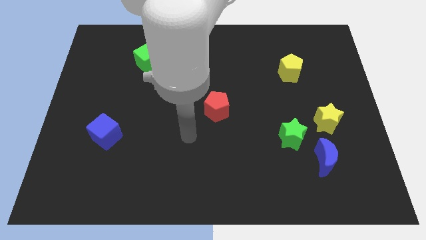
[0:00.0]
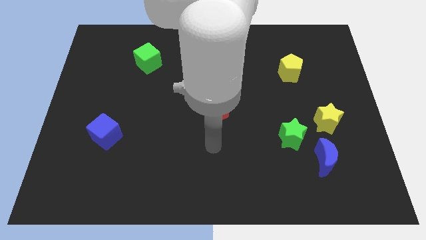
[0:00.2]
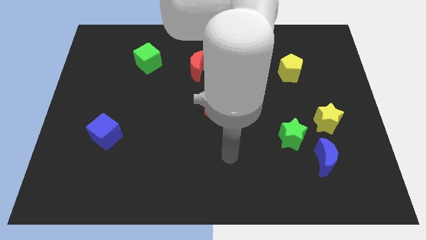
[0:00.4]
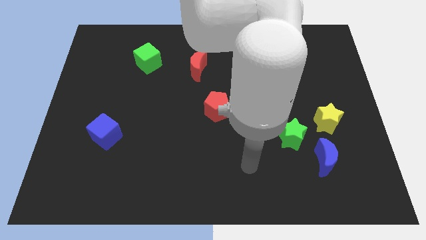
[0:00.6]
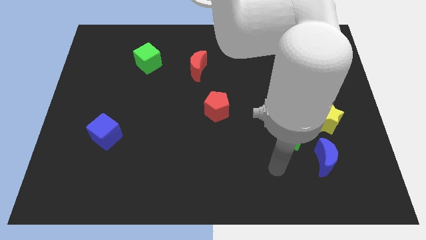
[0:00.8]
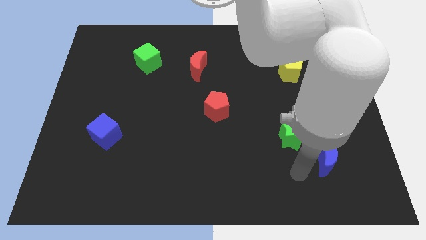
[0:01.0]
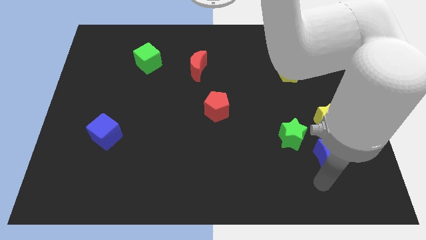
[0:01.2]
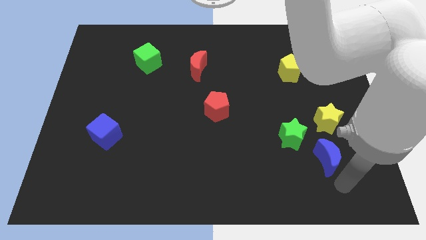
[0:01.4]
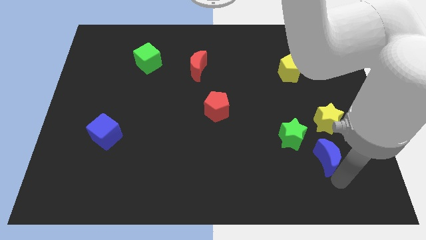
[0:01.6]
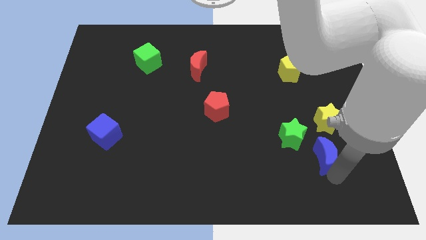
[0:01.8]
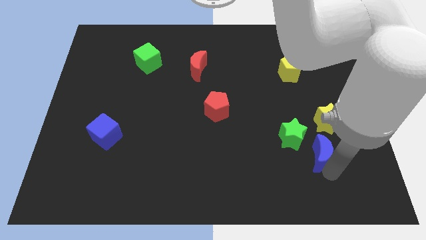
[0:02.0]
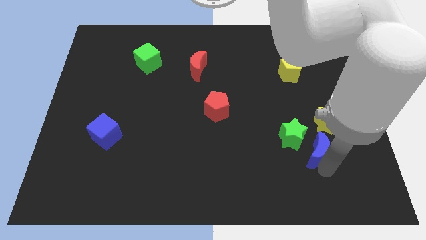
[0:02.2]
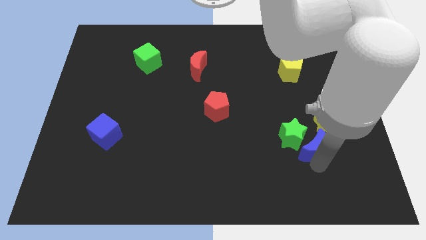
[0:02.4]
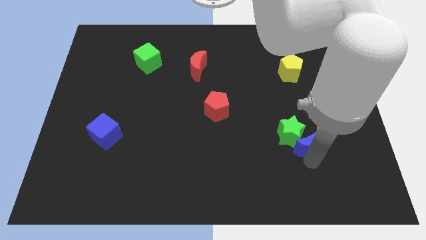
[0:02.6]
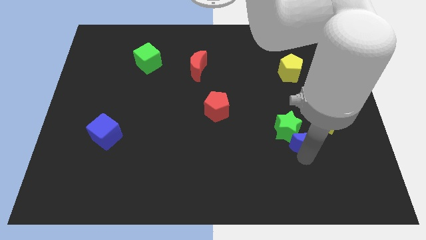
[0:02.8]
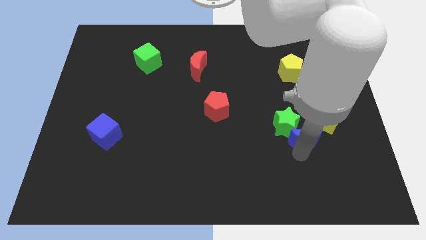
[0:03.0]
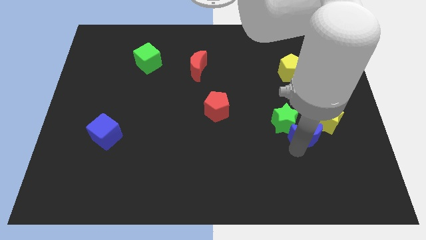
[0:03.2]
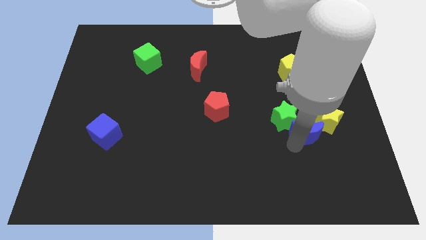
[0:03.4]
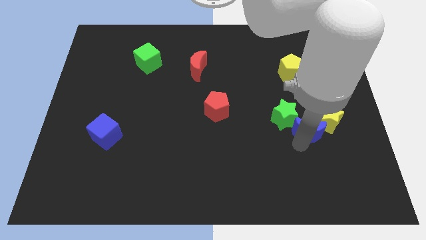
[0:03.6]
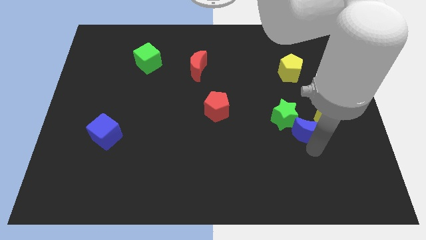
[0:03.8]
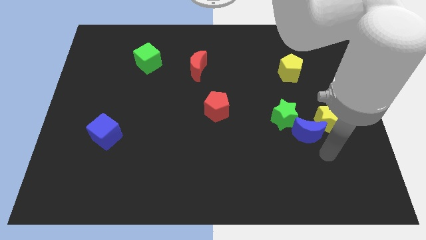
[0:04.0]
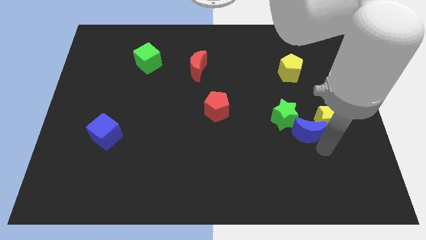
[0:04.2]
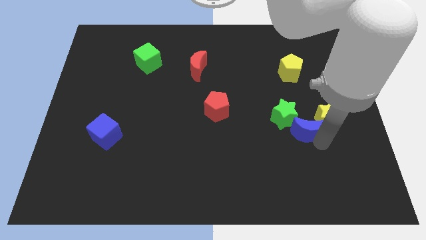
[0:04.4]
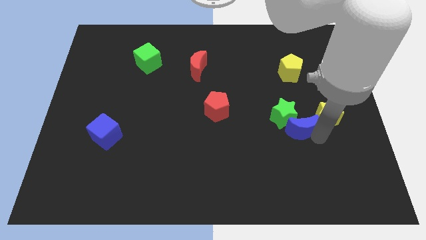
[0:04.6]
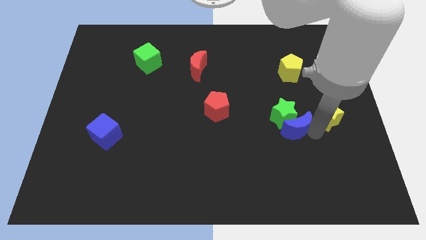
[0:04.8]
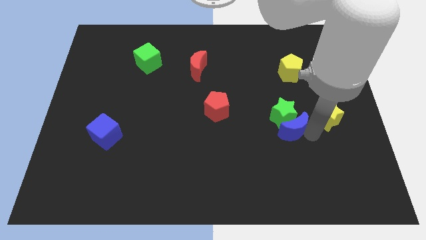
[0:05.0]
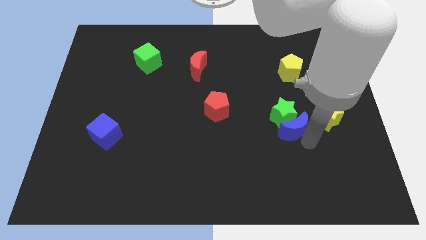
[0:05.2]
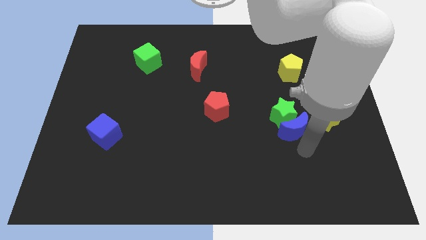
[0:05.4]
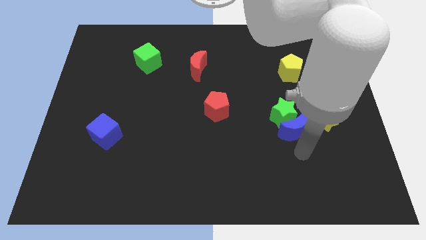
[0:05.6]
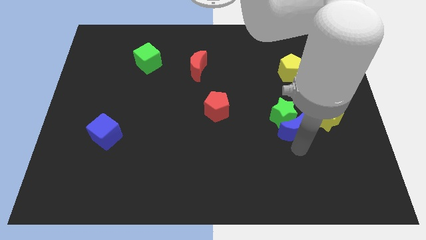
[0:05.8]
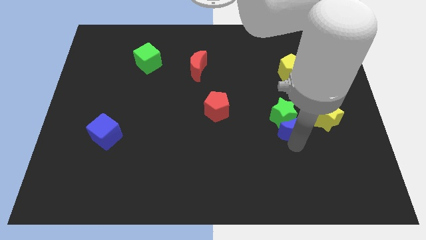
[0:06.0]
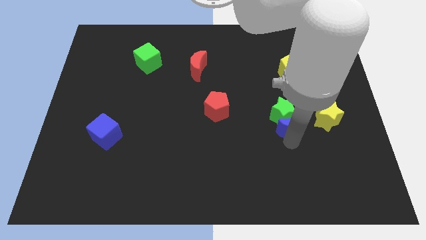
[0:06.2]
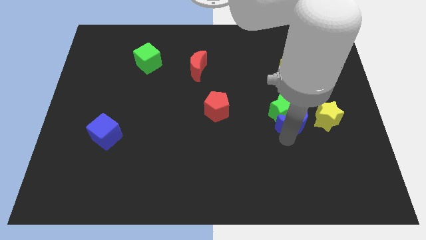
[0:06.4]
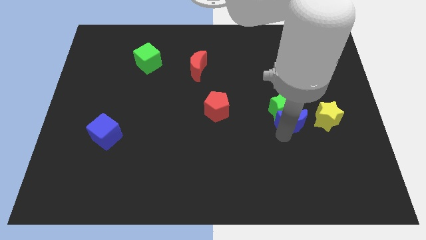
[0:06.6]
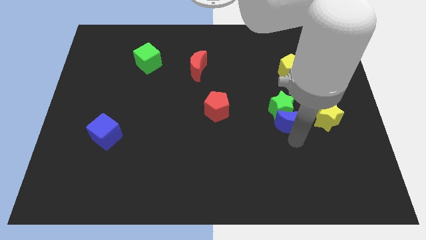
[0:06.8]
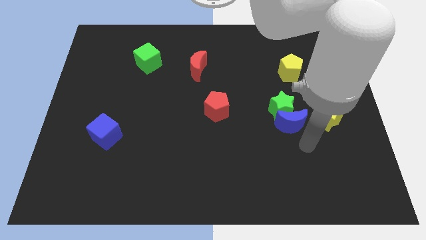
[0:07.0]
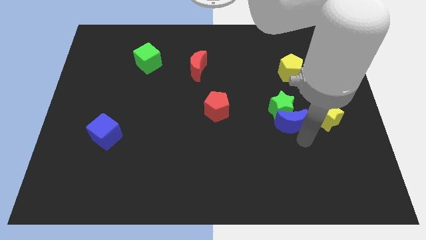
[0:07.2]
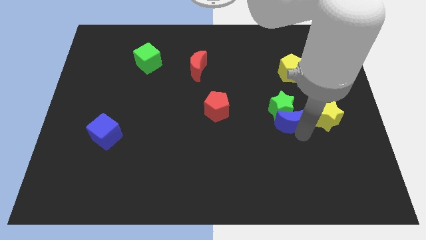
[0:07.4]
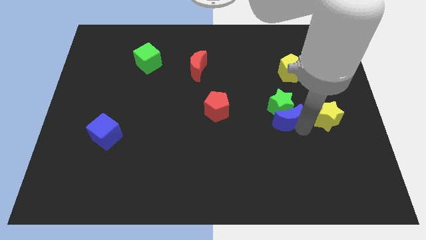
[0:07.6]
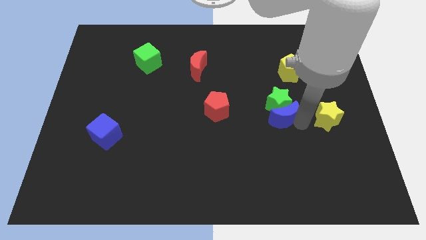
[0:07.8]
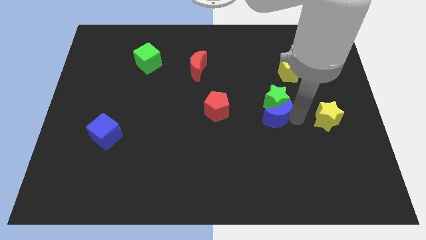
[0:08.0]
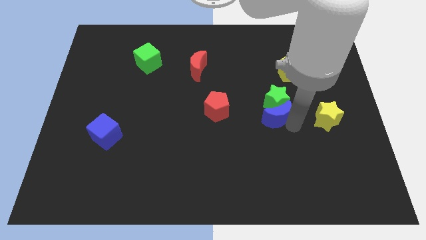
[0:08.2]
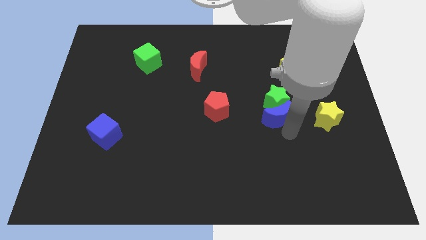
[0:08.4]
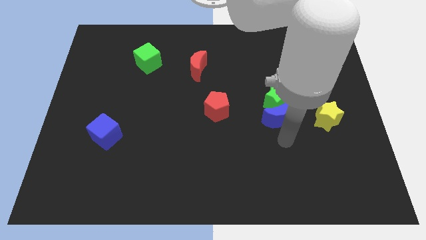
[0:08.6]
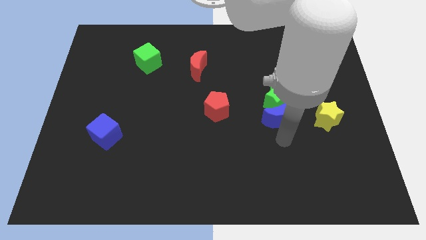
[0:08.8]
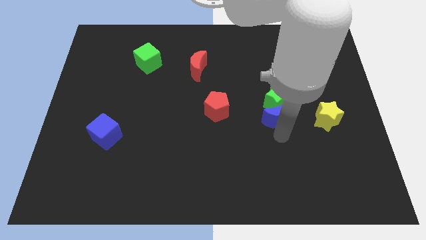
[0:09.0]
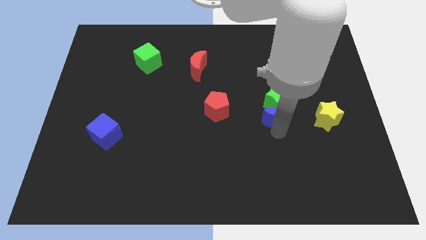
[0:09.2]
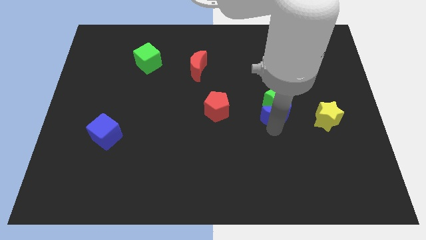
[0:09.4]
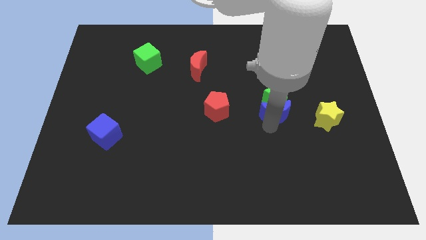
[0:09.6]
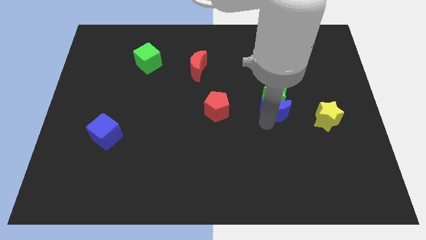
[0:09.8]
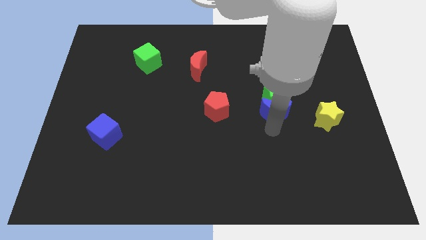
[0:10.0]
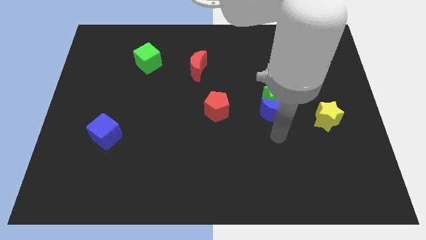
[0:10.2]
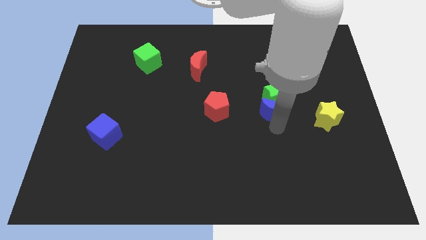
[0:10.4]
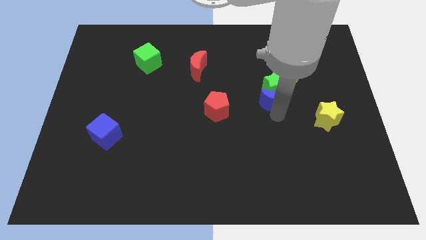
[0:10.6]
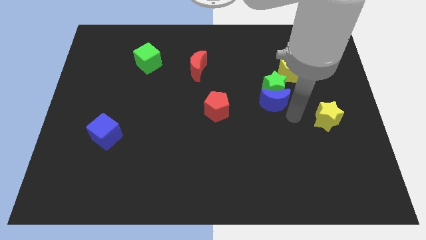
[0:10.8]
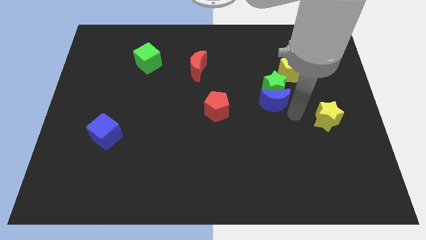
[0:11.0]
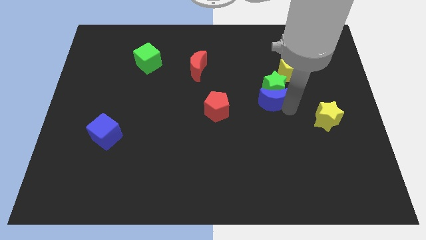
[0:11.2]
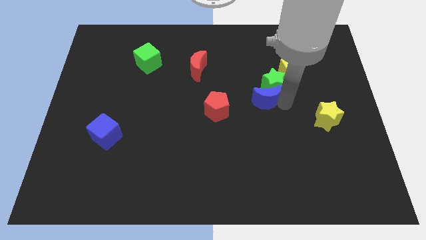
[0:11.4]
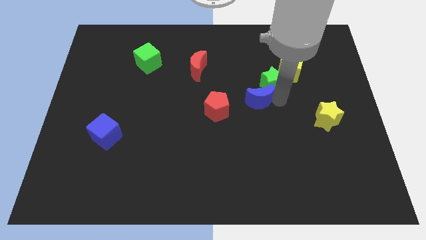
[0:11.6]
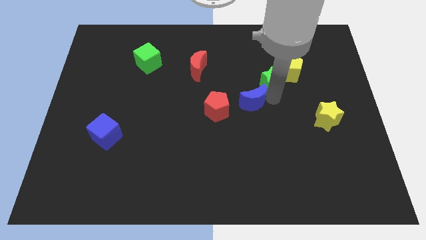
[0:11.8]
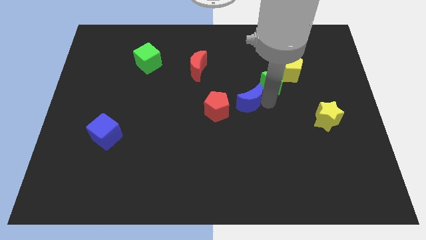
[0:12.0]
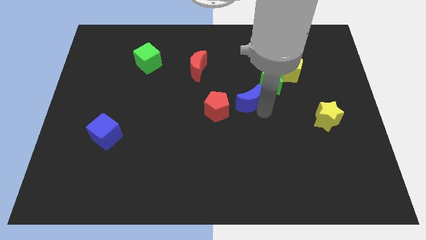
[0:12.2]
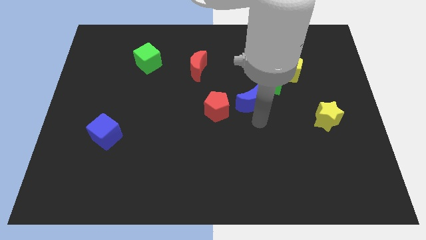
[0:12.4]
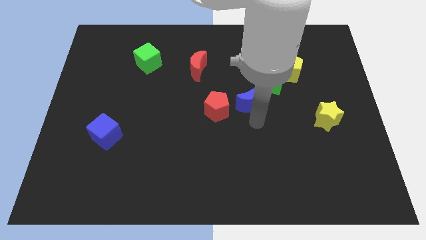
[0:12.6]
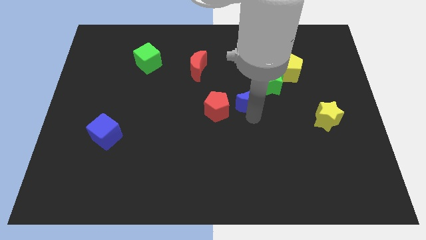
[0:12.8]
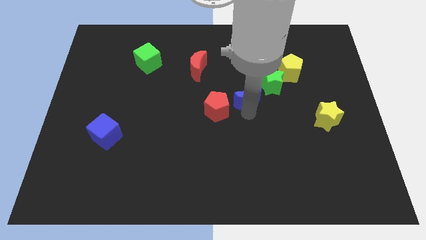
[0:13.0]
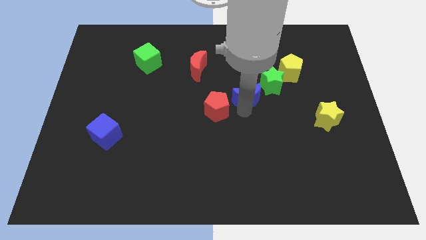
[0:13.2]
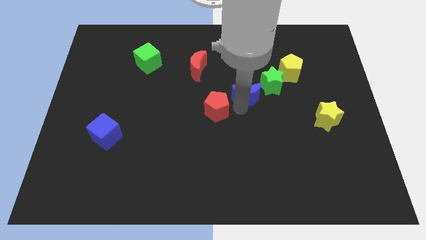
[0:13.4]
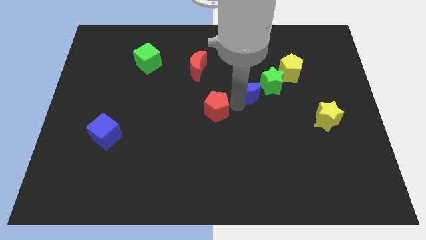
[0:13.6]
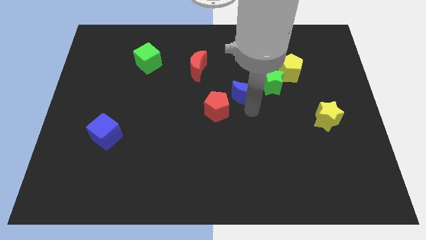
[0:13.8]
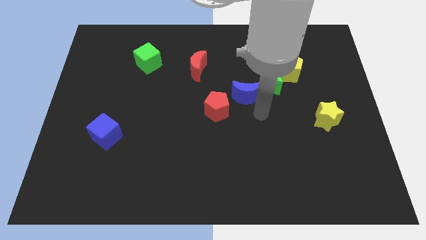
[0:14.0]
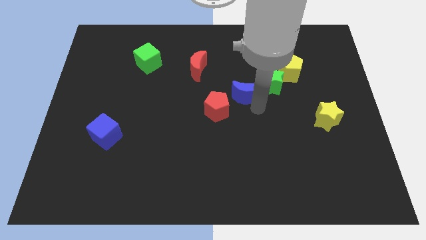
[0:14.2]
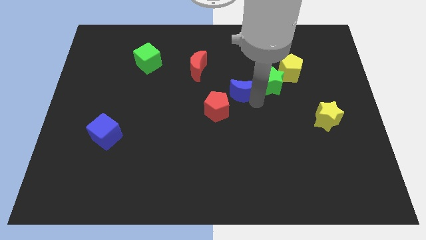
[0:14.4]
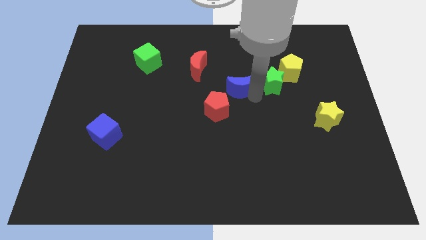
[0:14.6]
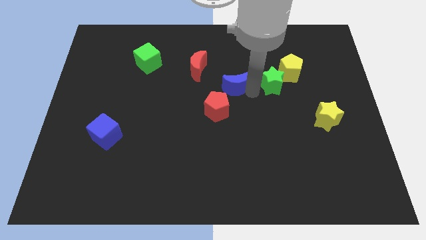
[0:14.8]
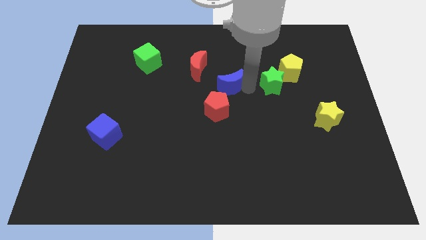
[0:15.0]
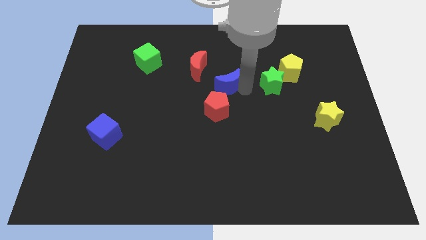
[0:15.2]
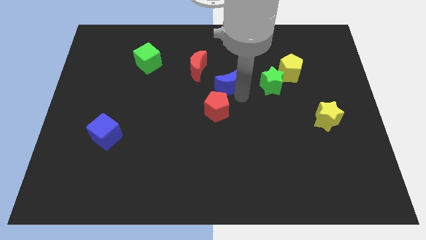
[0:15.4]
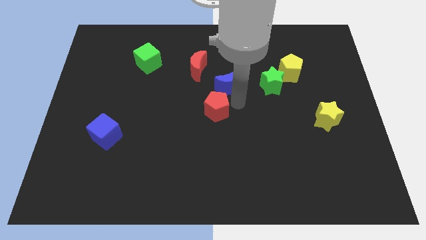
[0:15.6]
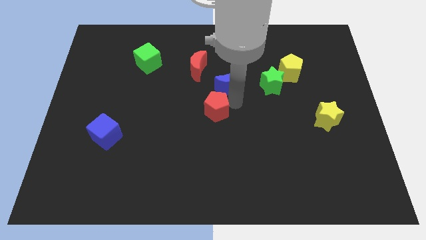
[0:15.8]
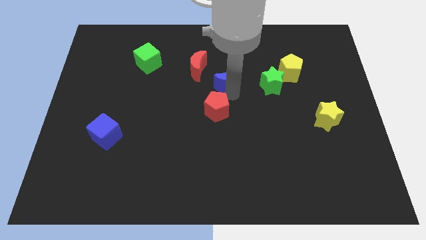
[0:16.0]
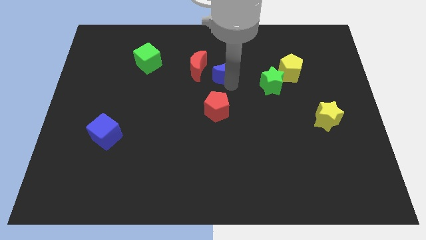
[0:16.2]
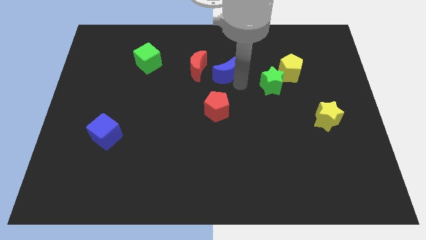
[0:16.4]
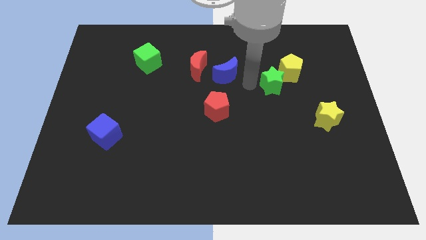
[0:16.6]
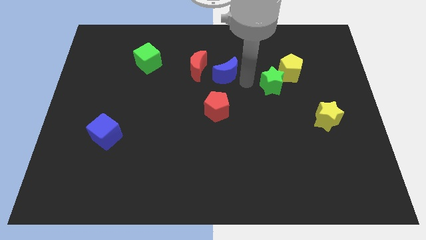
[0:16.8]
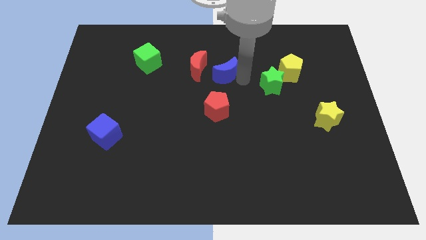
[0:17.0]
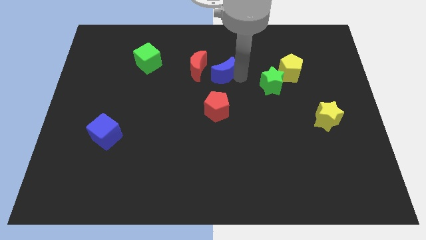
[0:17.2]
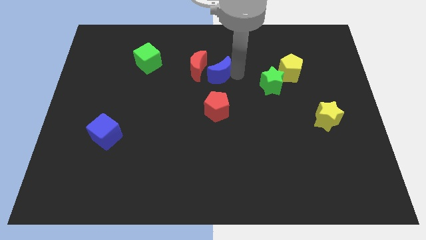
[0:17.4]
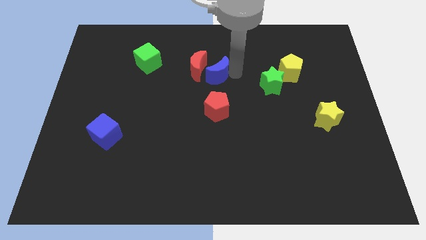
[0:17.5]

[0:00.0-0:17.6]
push the blue moon towards the red moon
